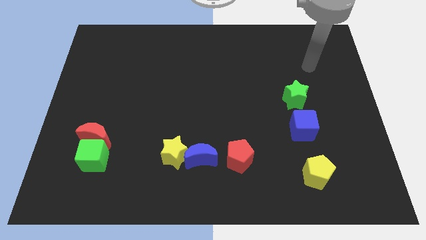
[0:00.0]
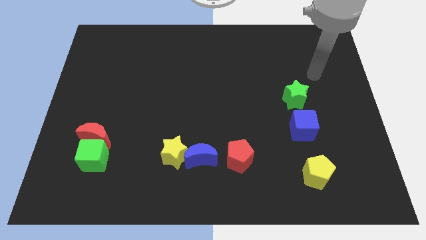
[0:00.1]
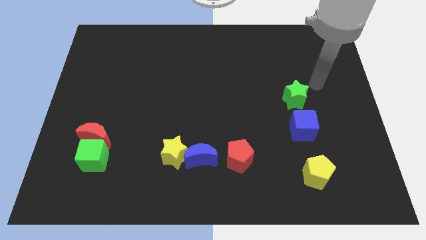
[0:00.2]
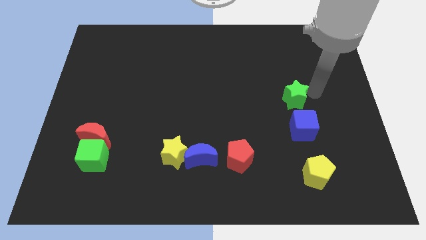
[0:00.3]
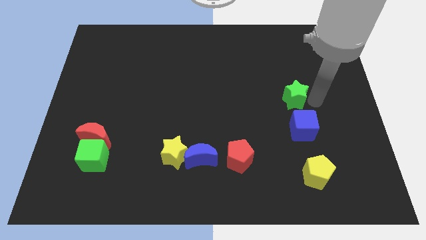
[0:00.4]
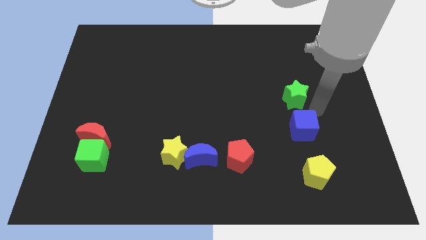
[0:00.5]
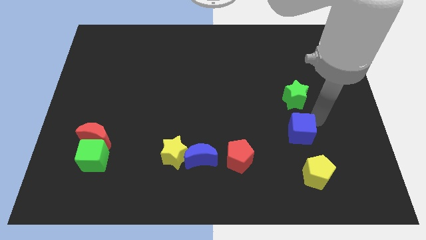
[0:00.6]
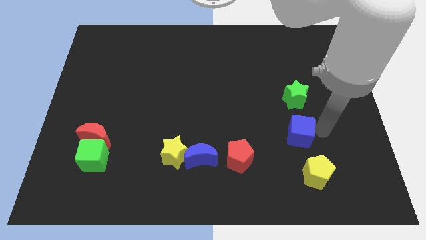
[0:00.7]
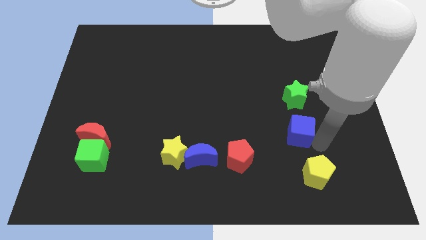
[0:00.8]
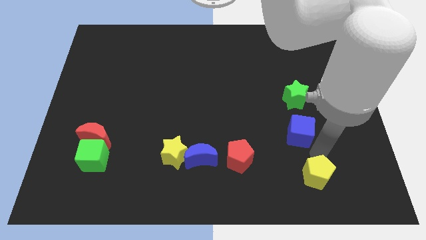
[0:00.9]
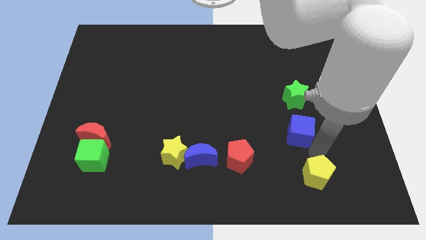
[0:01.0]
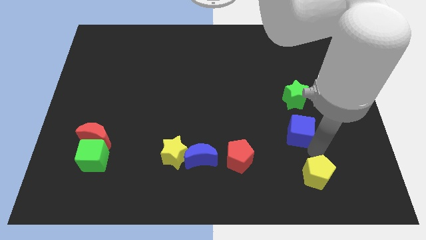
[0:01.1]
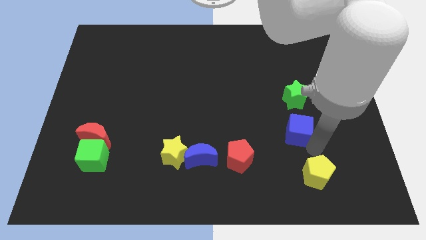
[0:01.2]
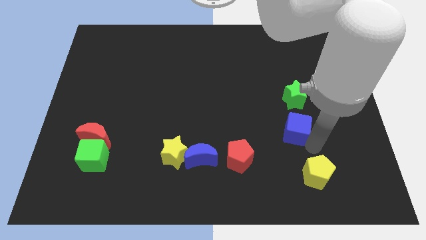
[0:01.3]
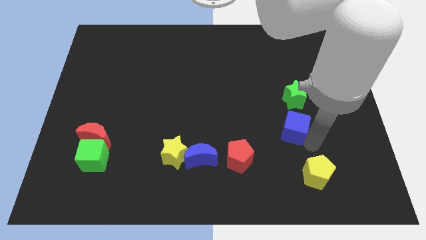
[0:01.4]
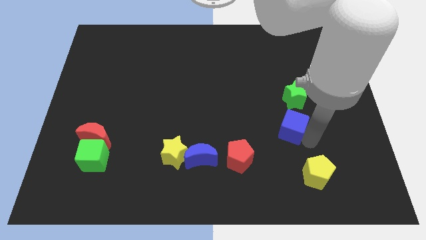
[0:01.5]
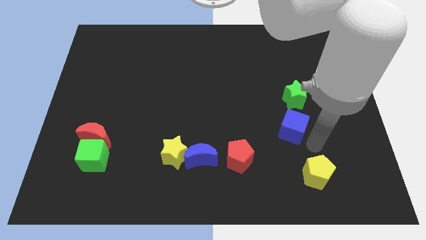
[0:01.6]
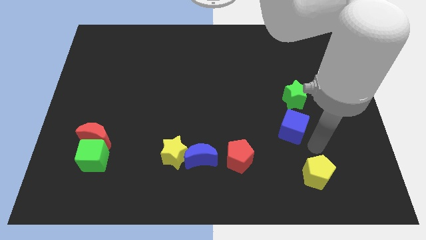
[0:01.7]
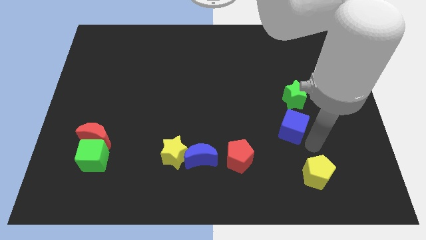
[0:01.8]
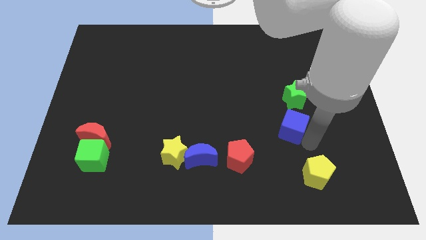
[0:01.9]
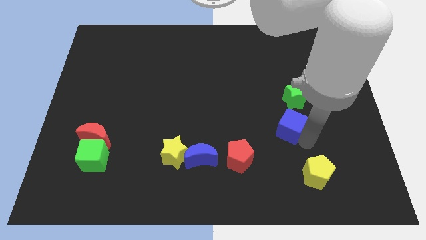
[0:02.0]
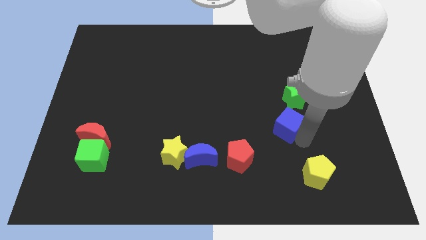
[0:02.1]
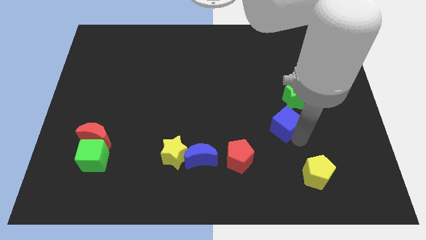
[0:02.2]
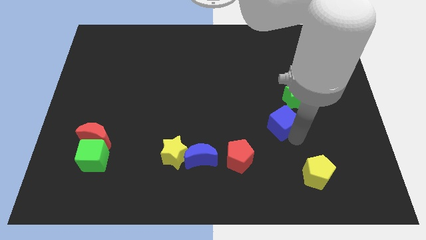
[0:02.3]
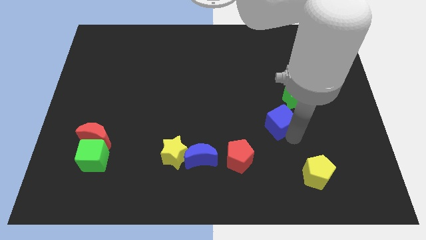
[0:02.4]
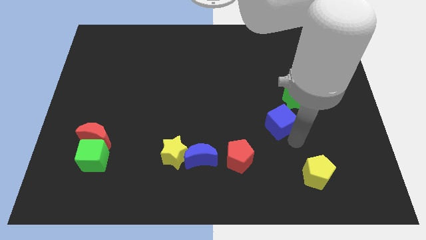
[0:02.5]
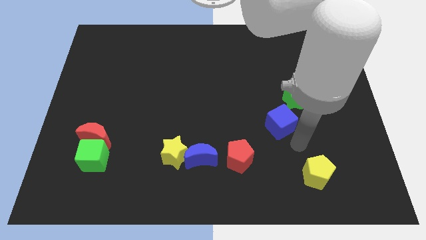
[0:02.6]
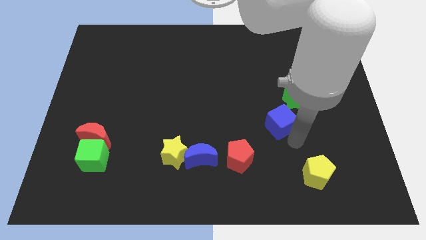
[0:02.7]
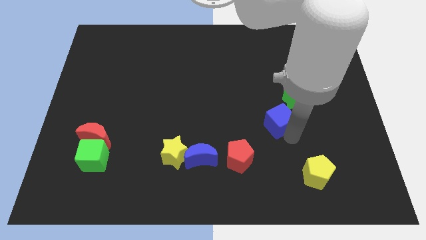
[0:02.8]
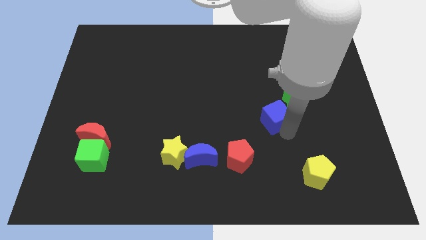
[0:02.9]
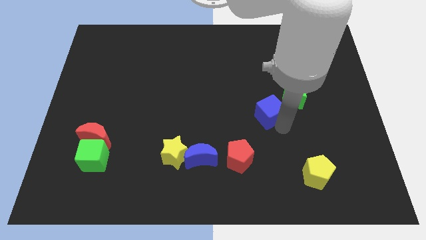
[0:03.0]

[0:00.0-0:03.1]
slide the blue cube a little bit diagonally up and to the left

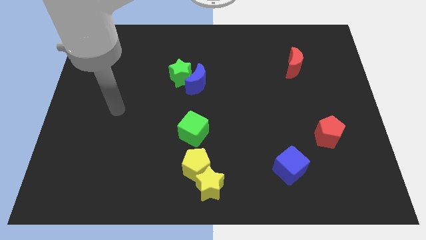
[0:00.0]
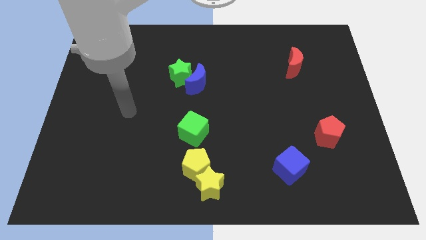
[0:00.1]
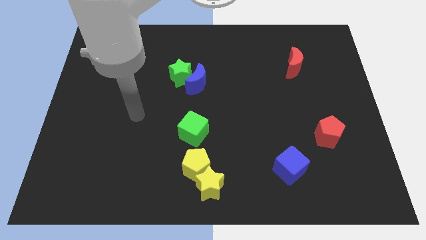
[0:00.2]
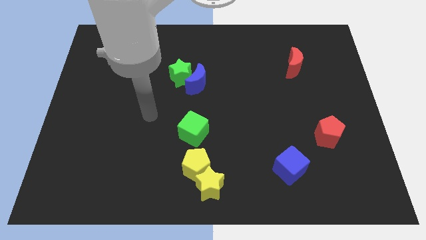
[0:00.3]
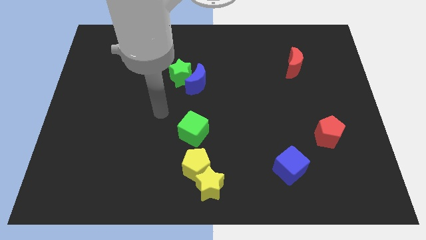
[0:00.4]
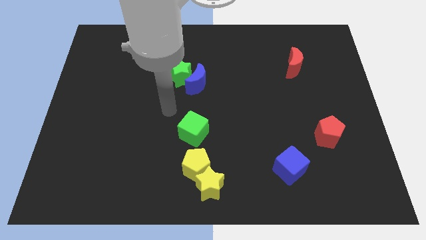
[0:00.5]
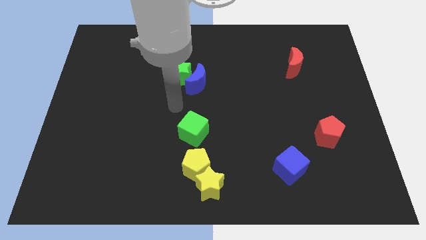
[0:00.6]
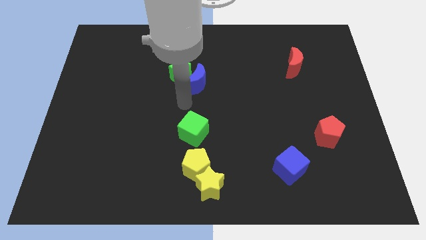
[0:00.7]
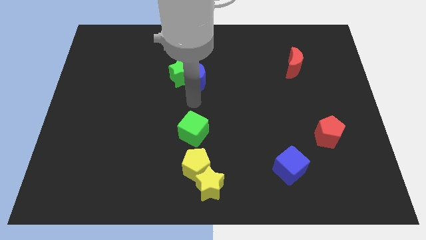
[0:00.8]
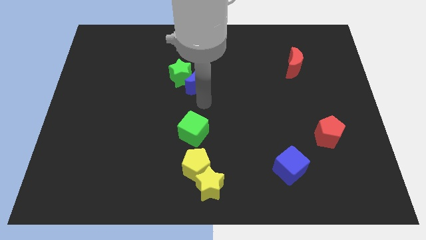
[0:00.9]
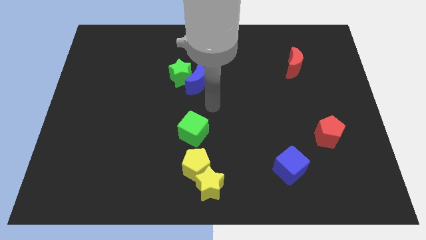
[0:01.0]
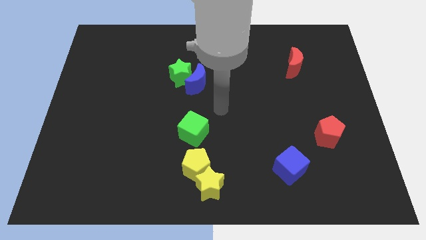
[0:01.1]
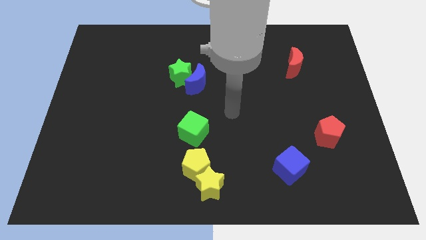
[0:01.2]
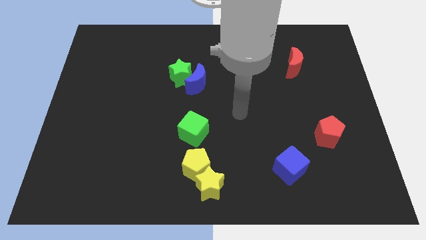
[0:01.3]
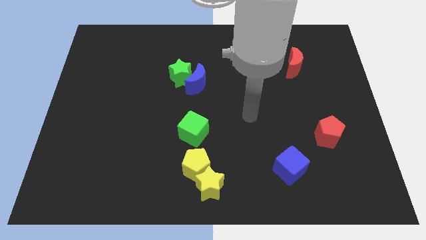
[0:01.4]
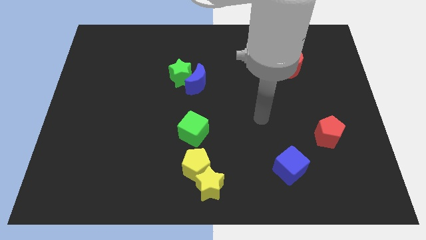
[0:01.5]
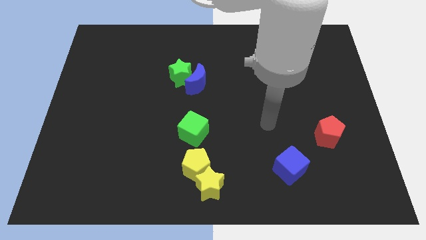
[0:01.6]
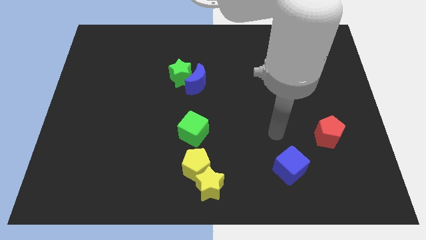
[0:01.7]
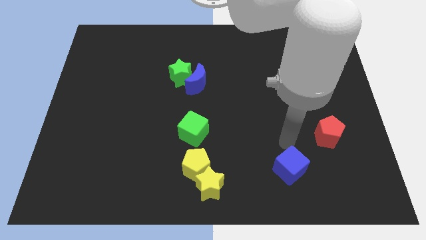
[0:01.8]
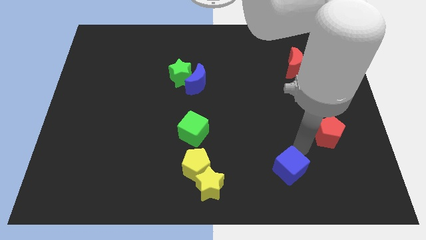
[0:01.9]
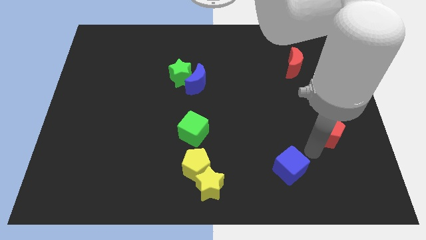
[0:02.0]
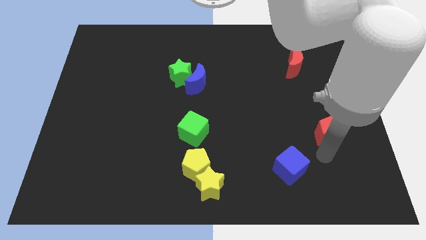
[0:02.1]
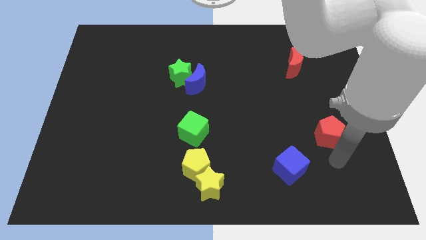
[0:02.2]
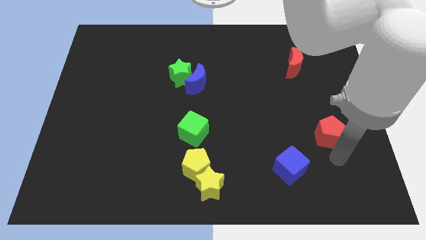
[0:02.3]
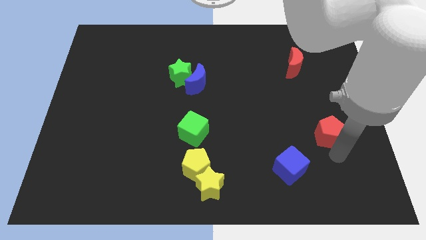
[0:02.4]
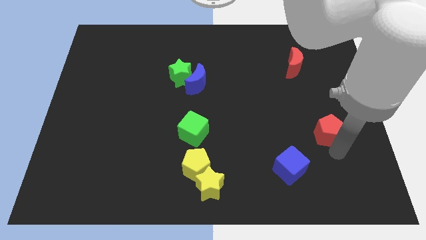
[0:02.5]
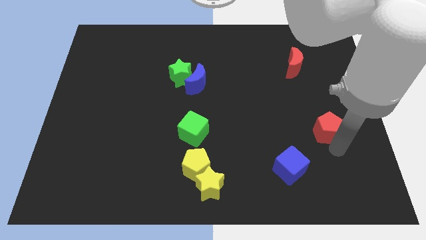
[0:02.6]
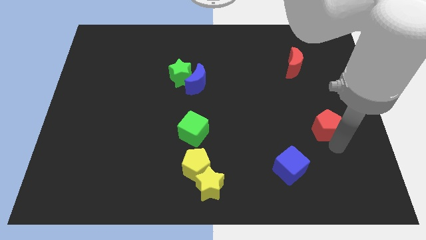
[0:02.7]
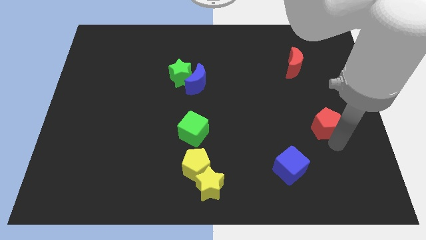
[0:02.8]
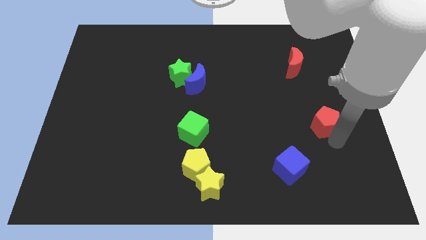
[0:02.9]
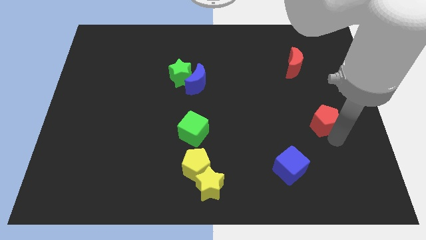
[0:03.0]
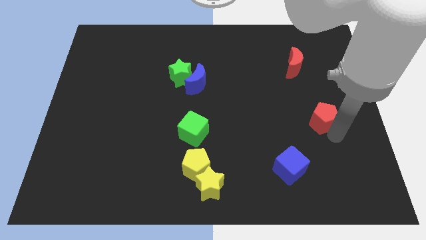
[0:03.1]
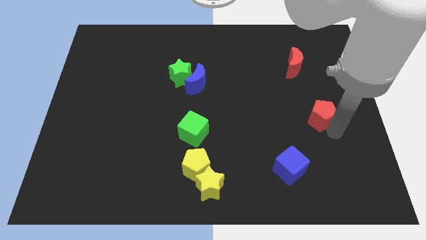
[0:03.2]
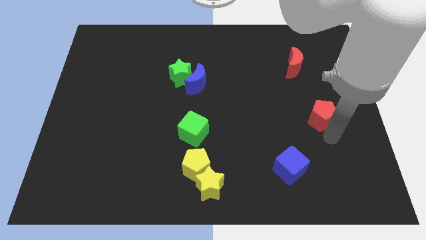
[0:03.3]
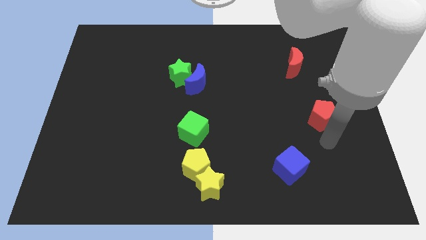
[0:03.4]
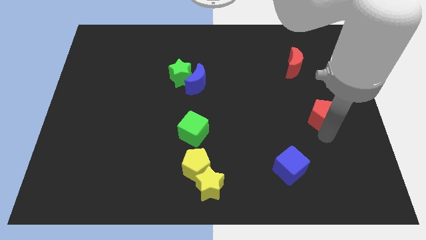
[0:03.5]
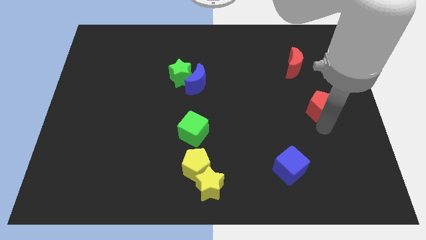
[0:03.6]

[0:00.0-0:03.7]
slide the red pentagon upwards a little

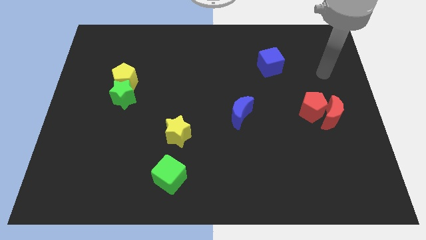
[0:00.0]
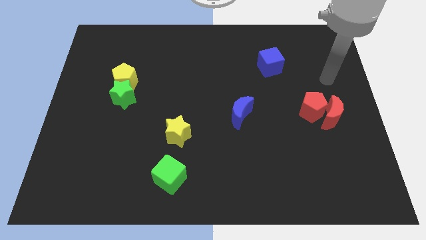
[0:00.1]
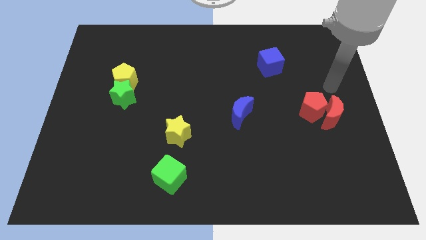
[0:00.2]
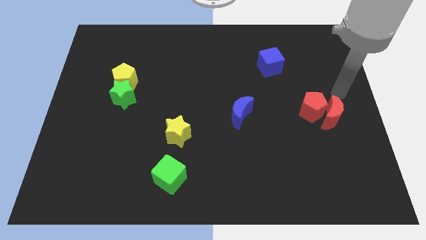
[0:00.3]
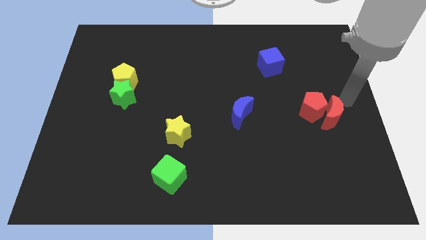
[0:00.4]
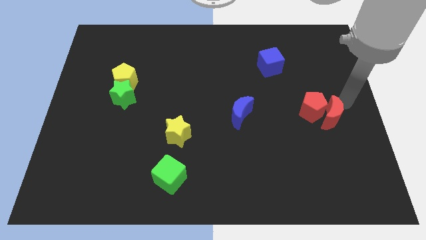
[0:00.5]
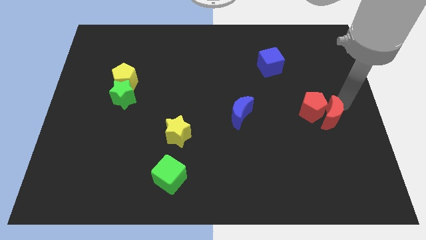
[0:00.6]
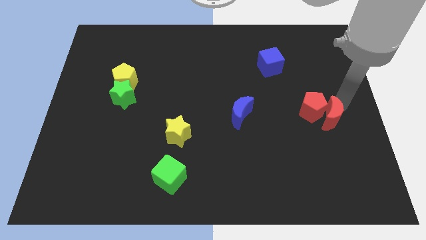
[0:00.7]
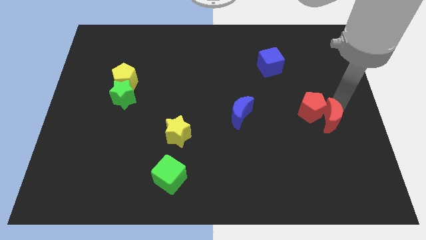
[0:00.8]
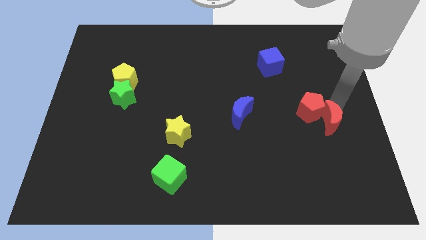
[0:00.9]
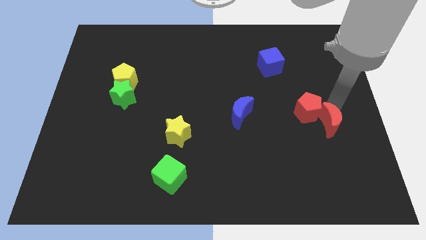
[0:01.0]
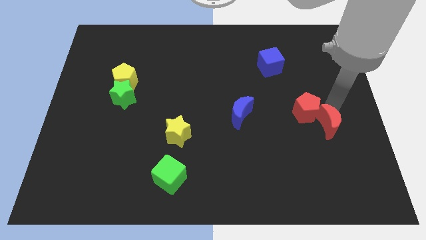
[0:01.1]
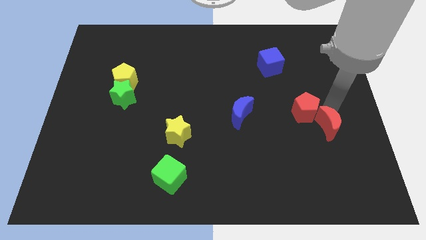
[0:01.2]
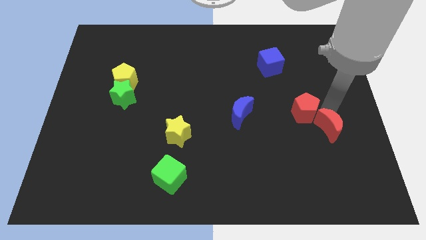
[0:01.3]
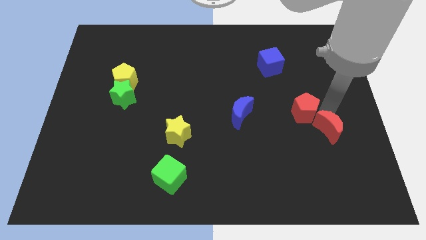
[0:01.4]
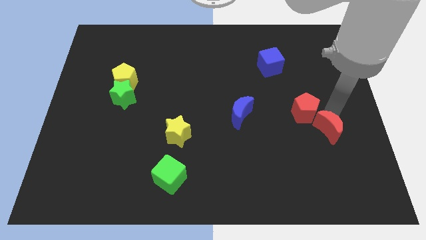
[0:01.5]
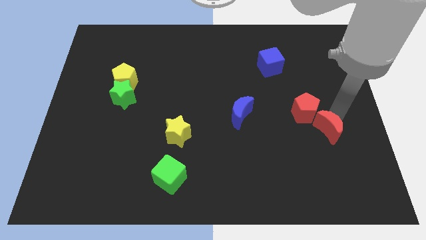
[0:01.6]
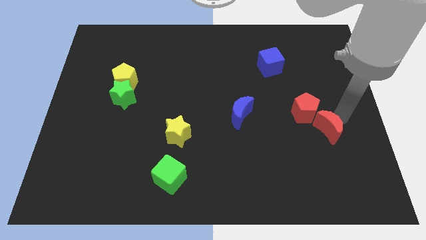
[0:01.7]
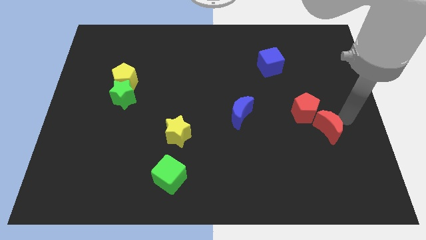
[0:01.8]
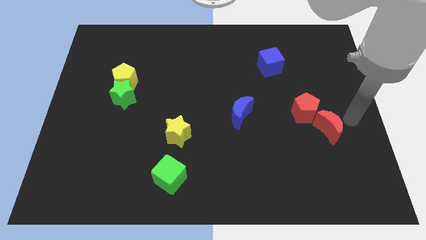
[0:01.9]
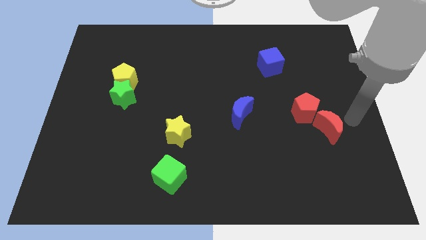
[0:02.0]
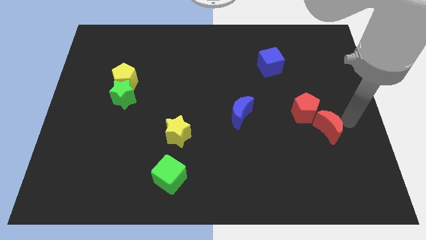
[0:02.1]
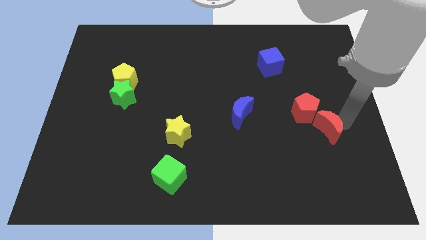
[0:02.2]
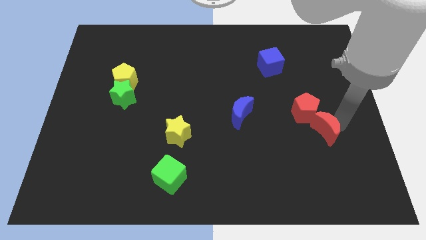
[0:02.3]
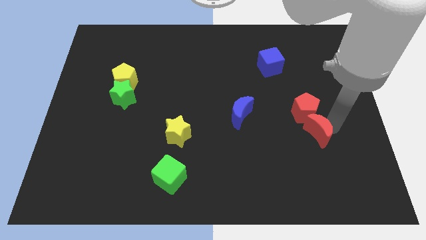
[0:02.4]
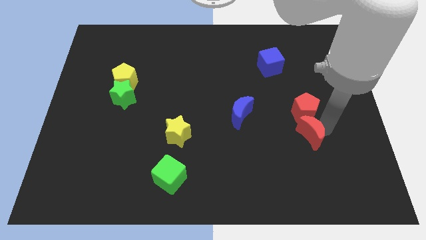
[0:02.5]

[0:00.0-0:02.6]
slightly push the red moon diagonally downwards and to the left
